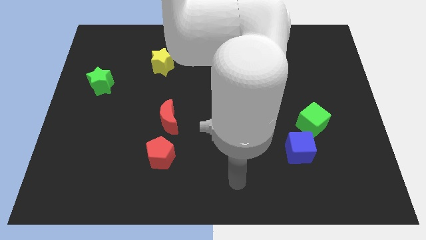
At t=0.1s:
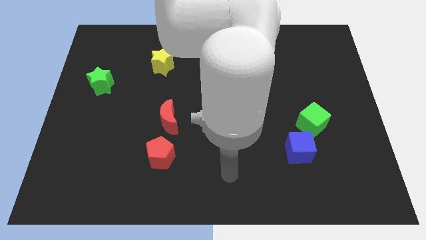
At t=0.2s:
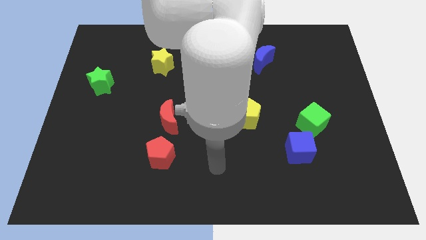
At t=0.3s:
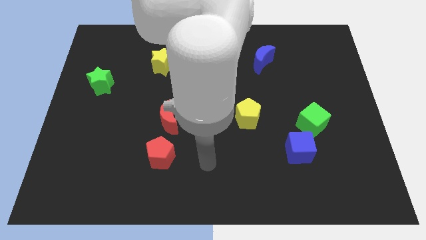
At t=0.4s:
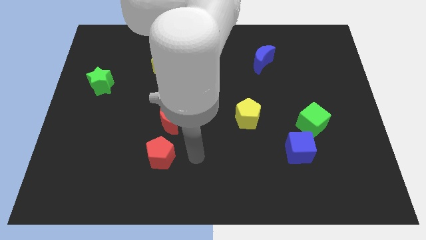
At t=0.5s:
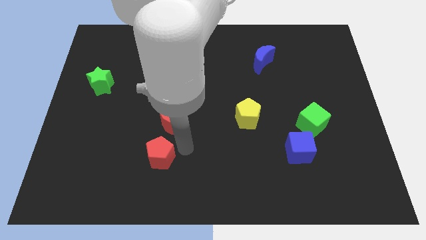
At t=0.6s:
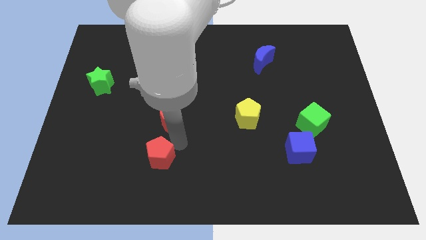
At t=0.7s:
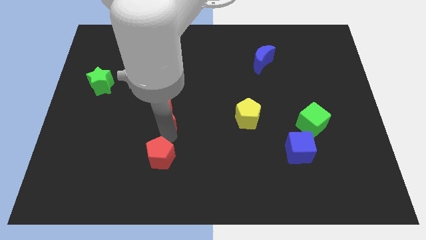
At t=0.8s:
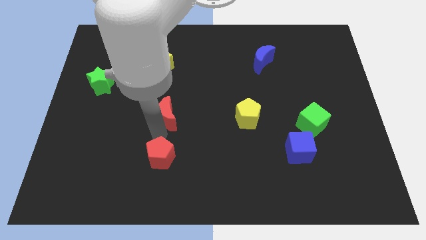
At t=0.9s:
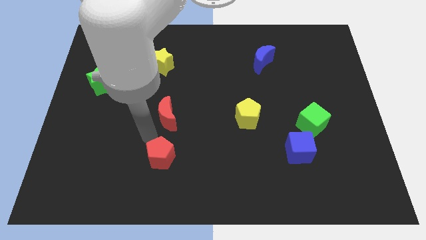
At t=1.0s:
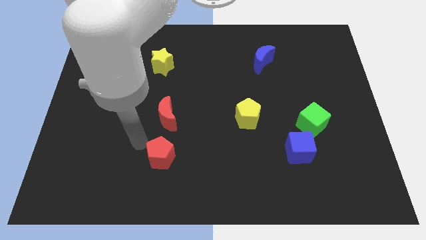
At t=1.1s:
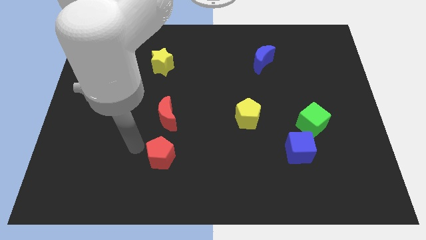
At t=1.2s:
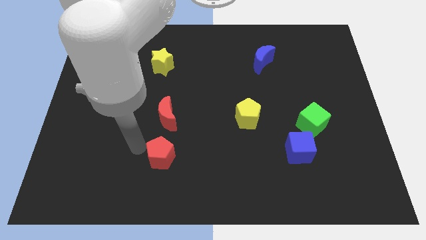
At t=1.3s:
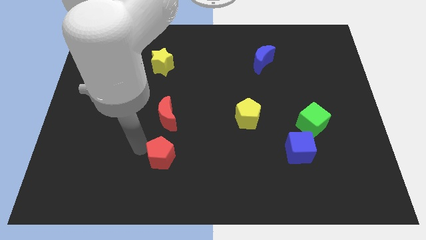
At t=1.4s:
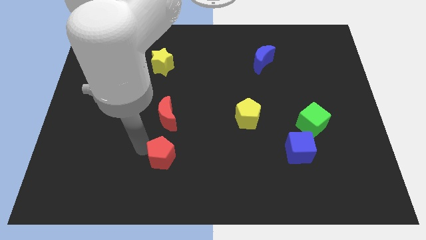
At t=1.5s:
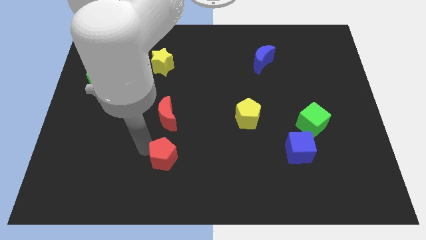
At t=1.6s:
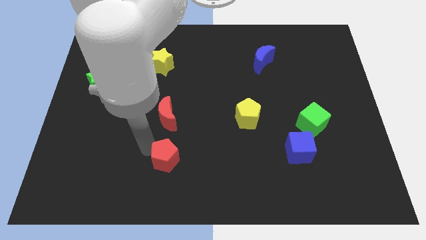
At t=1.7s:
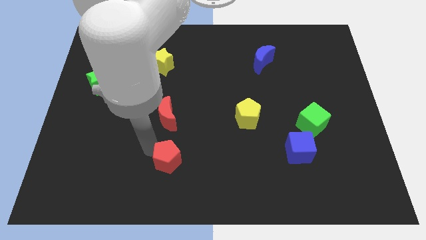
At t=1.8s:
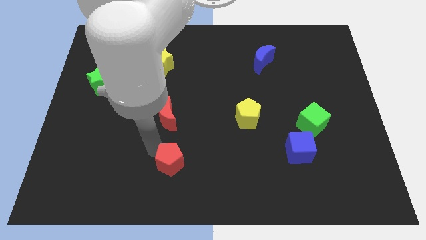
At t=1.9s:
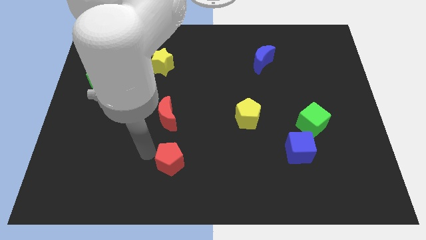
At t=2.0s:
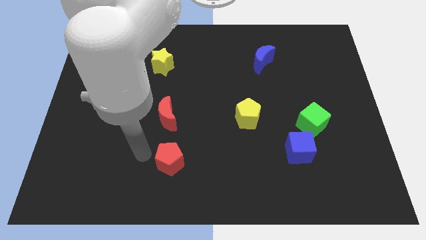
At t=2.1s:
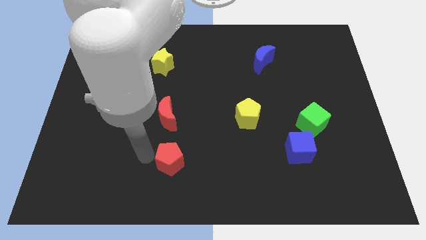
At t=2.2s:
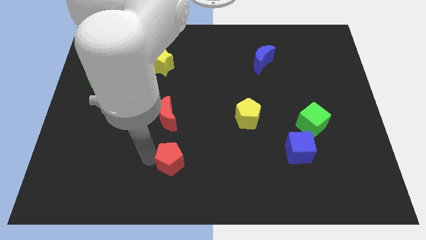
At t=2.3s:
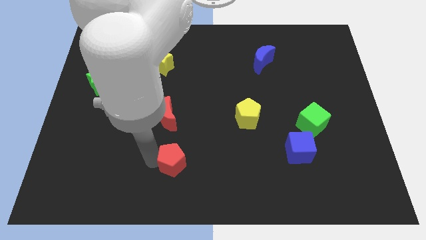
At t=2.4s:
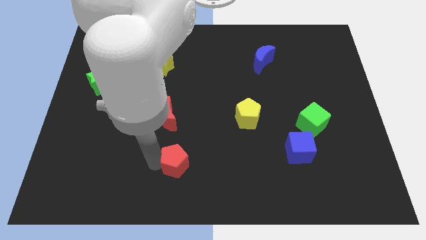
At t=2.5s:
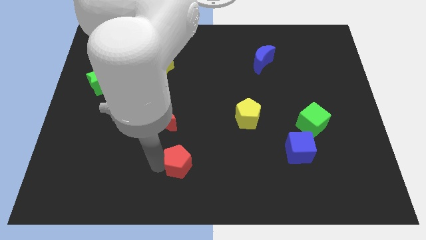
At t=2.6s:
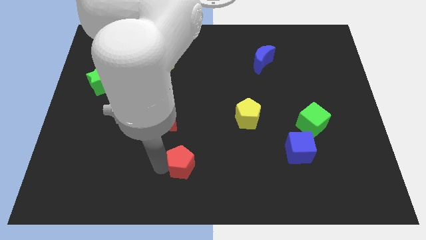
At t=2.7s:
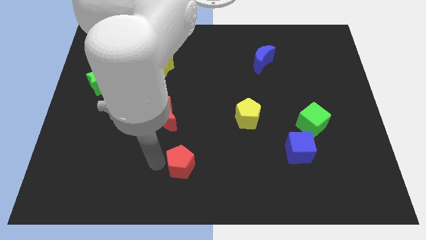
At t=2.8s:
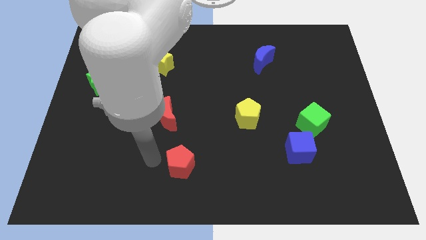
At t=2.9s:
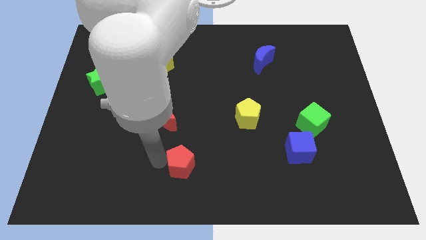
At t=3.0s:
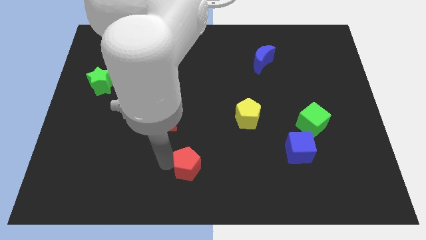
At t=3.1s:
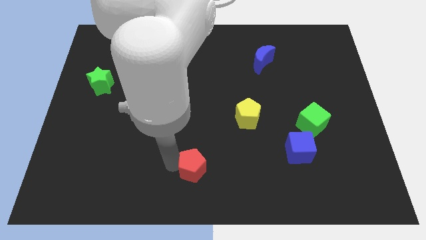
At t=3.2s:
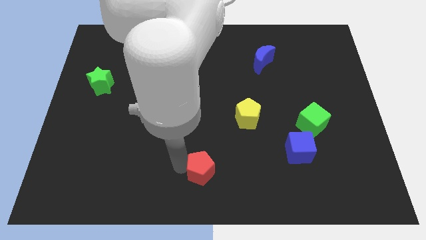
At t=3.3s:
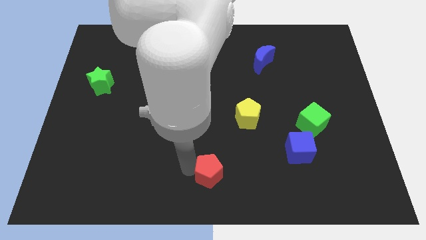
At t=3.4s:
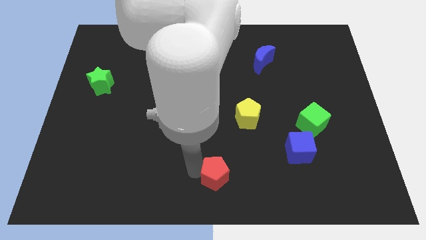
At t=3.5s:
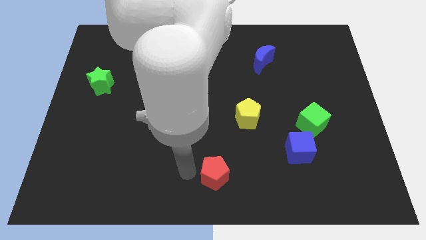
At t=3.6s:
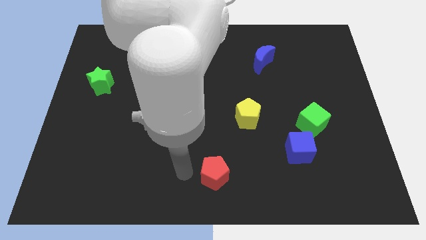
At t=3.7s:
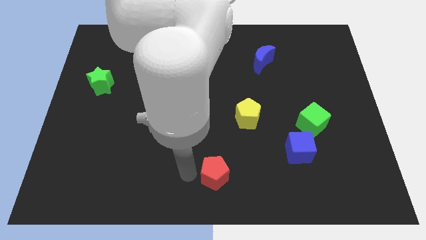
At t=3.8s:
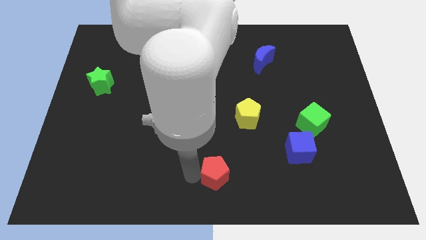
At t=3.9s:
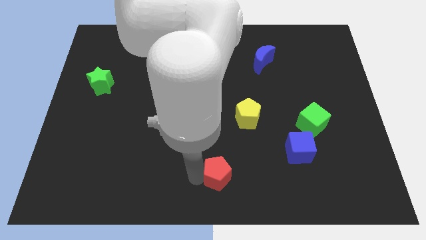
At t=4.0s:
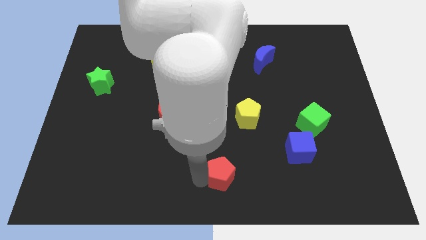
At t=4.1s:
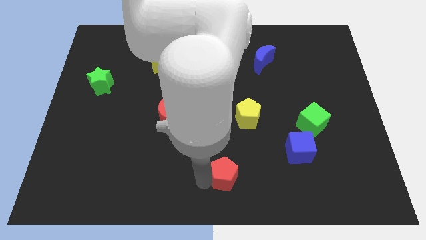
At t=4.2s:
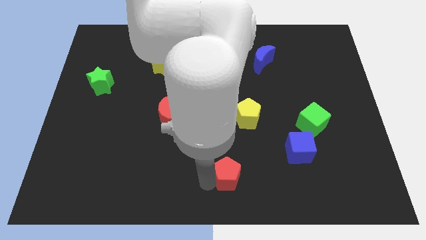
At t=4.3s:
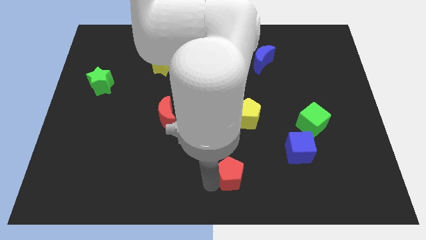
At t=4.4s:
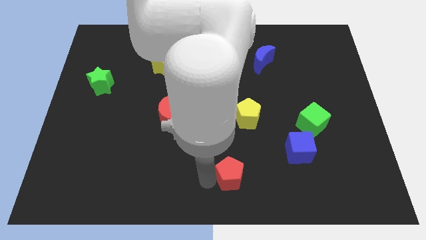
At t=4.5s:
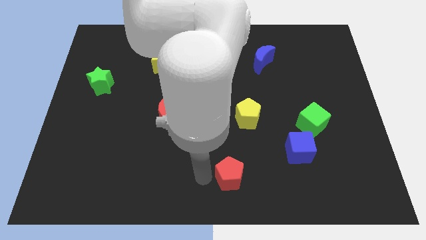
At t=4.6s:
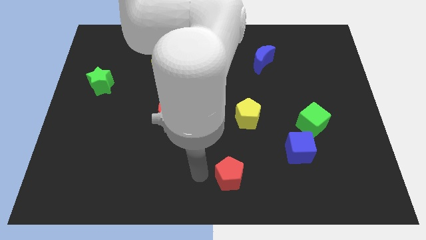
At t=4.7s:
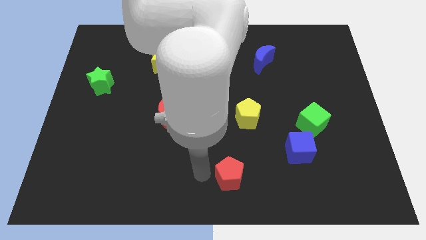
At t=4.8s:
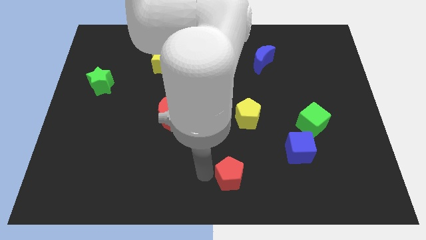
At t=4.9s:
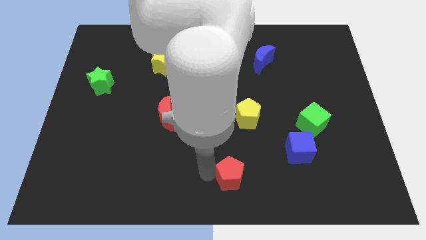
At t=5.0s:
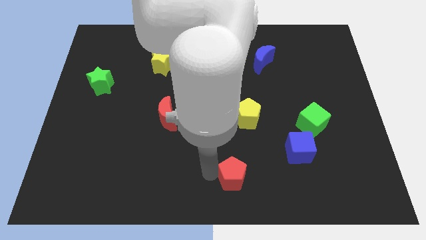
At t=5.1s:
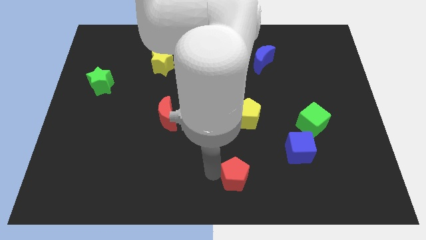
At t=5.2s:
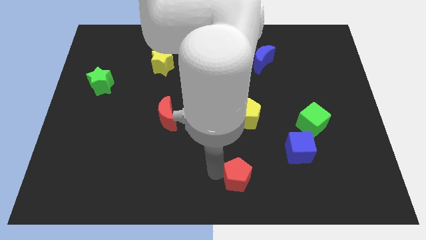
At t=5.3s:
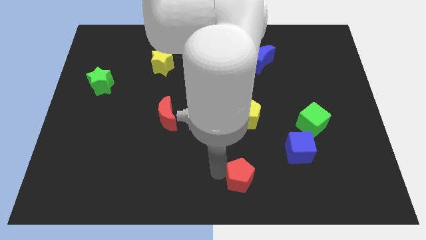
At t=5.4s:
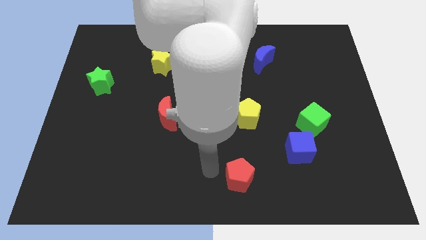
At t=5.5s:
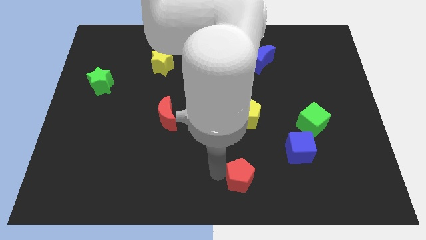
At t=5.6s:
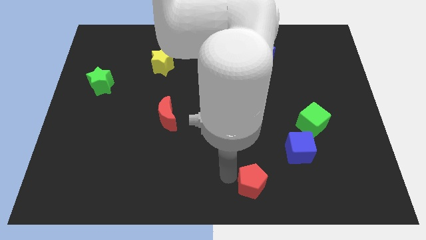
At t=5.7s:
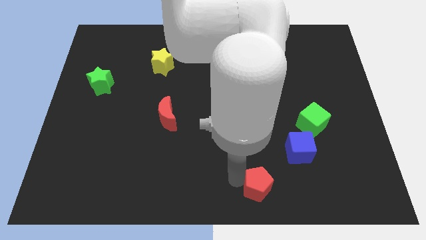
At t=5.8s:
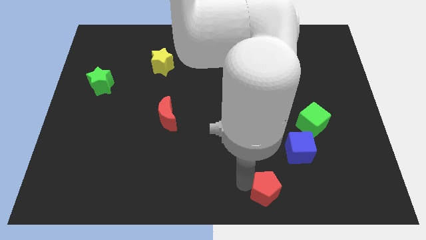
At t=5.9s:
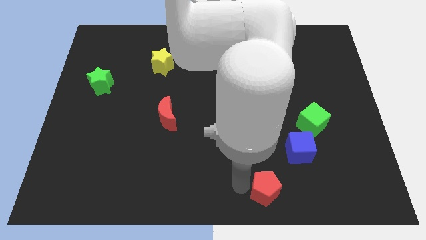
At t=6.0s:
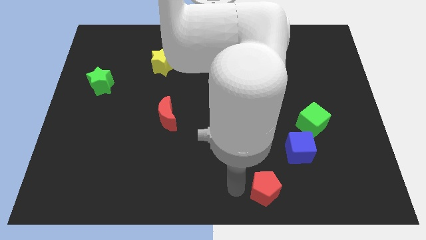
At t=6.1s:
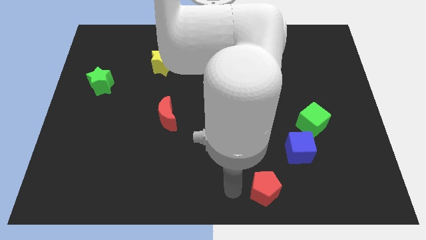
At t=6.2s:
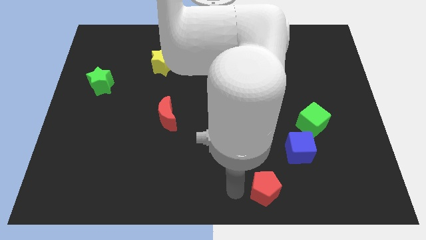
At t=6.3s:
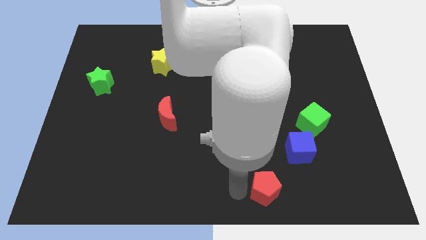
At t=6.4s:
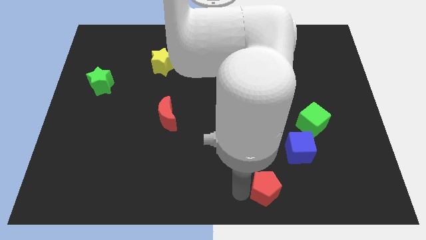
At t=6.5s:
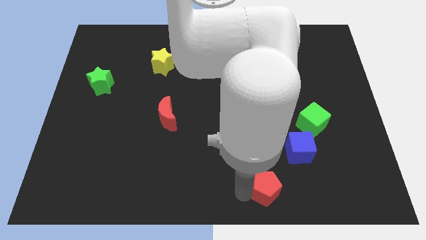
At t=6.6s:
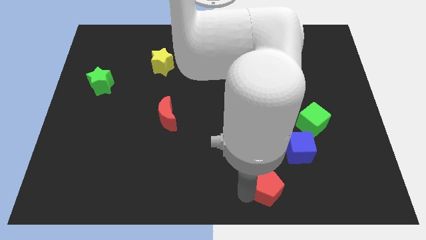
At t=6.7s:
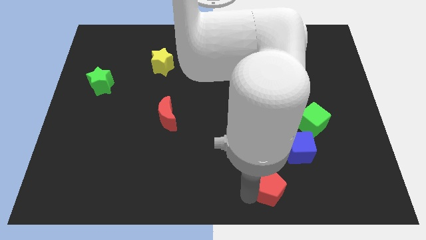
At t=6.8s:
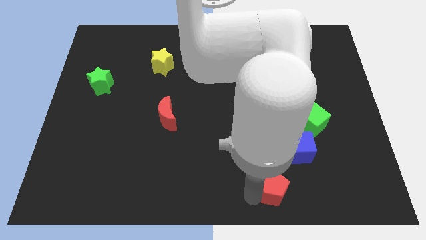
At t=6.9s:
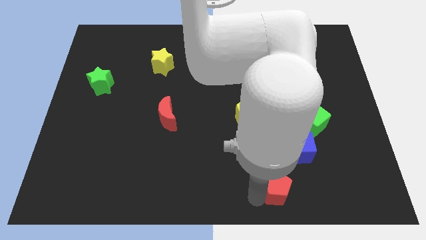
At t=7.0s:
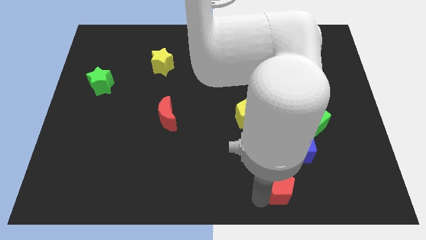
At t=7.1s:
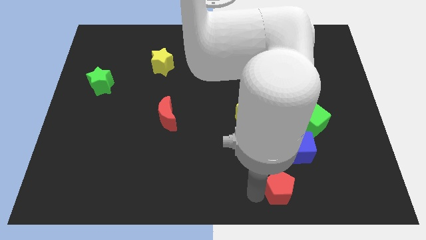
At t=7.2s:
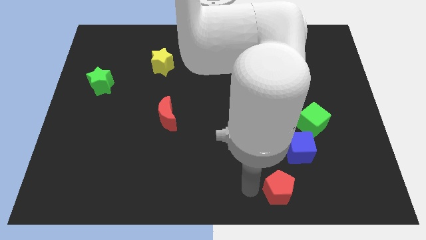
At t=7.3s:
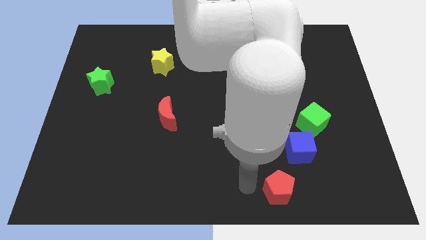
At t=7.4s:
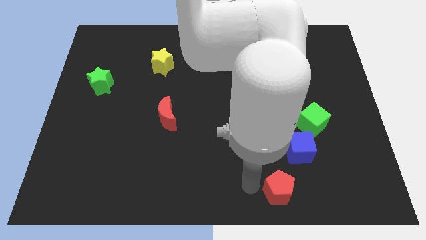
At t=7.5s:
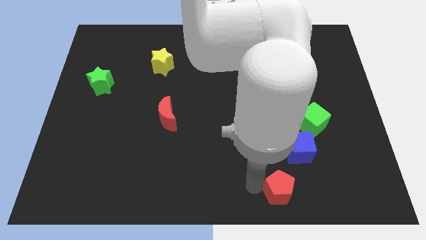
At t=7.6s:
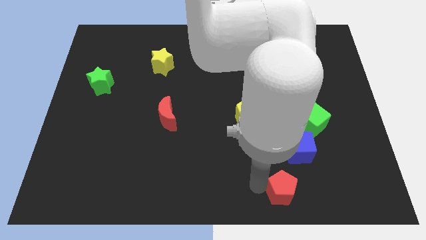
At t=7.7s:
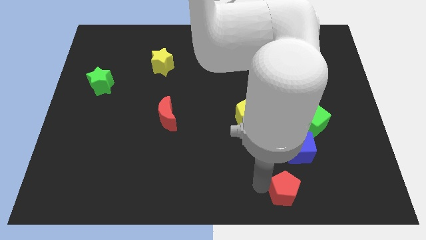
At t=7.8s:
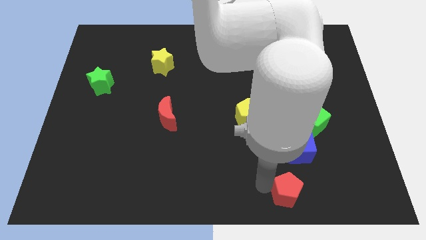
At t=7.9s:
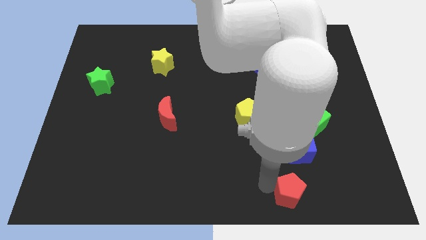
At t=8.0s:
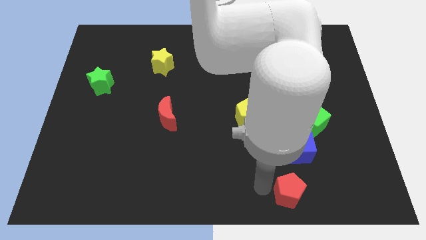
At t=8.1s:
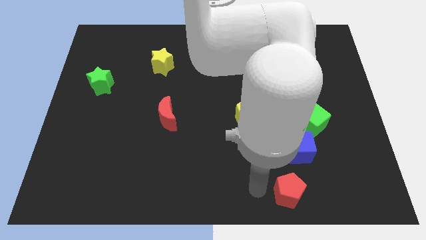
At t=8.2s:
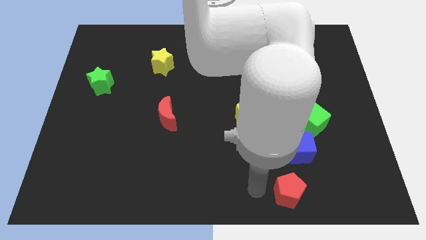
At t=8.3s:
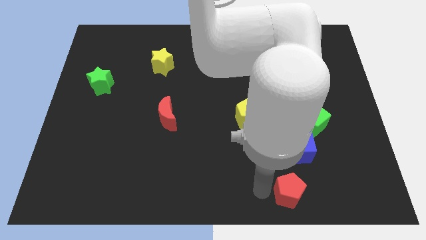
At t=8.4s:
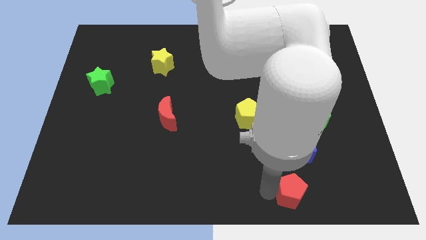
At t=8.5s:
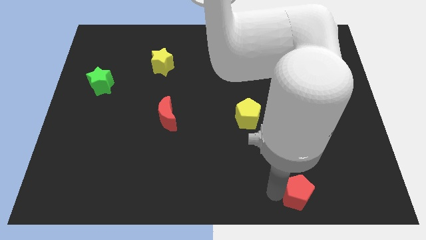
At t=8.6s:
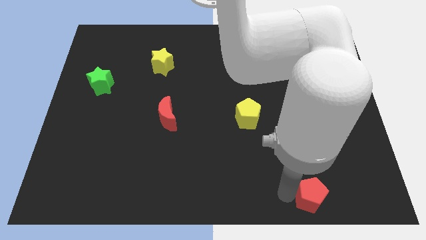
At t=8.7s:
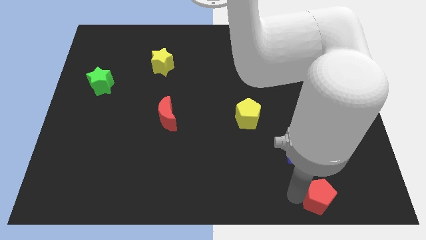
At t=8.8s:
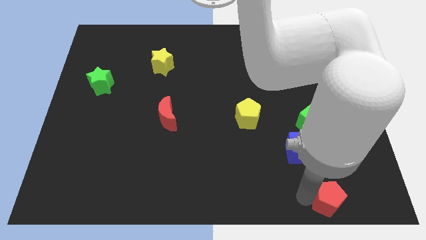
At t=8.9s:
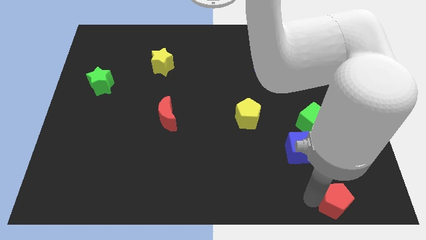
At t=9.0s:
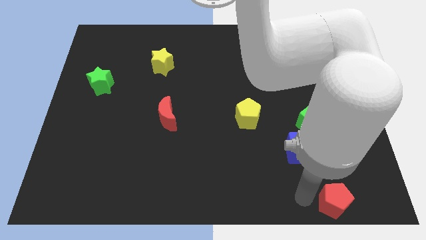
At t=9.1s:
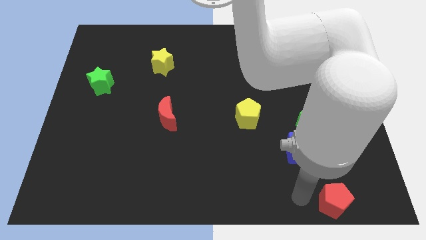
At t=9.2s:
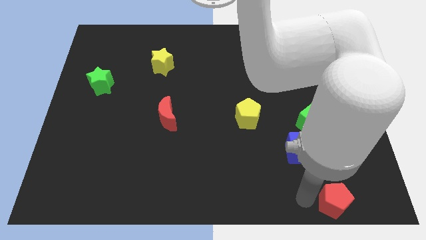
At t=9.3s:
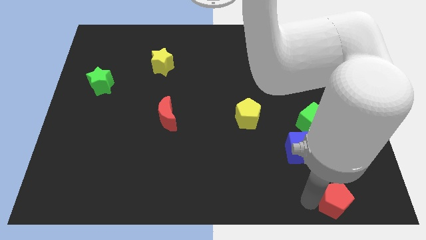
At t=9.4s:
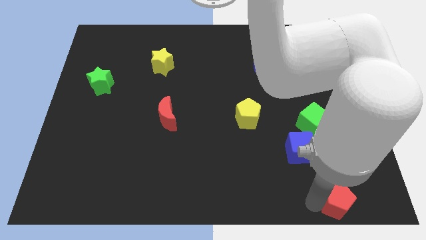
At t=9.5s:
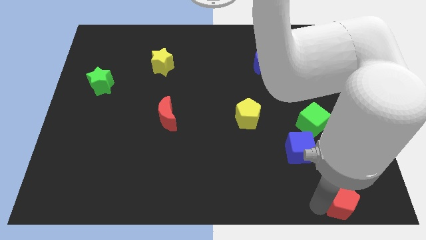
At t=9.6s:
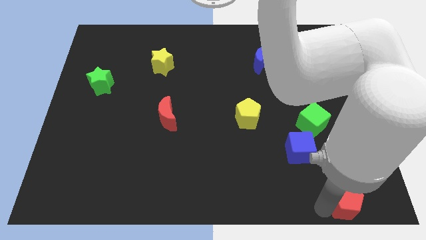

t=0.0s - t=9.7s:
move the red pentagon to the bottom right corner
